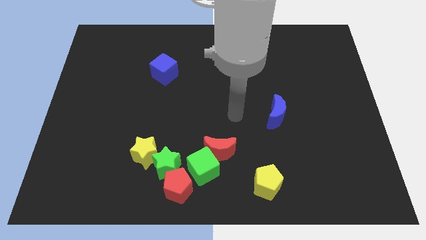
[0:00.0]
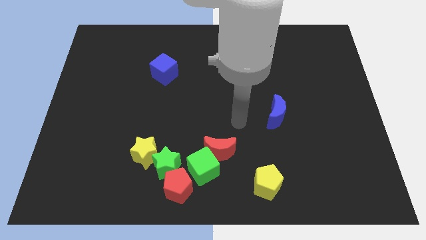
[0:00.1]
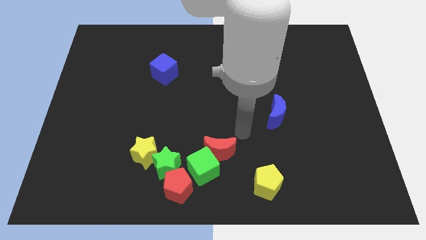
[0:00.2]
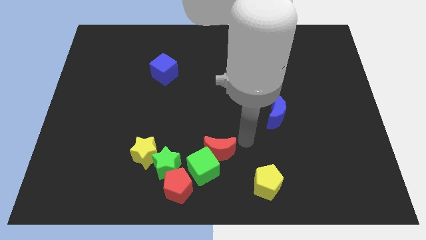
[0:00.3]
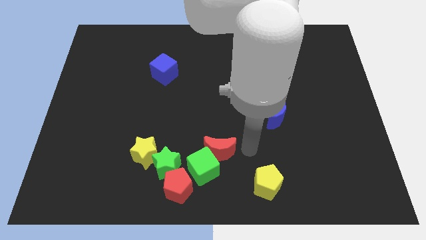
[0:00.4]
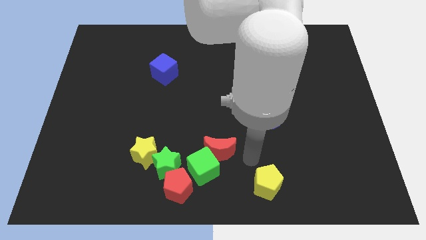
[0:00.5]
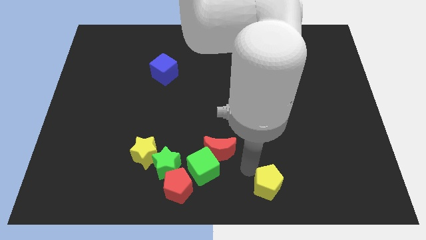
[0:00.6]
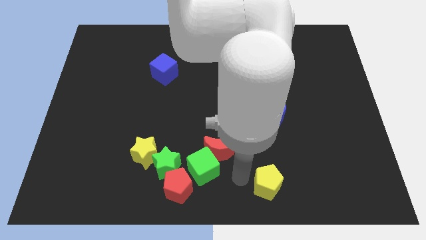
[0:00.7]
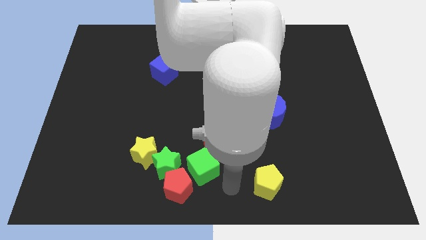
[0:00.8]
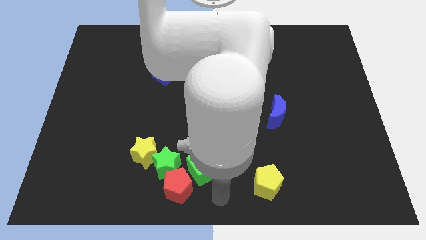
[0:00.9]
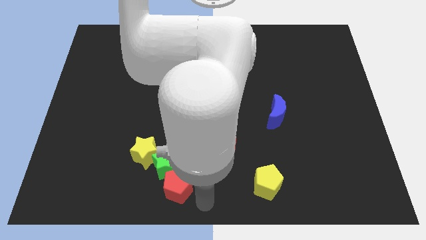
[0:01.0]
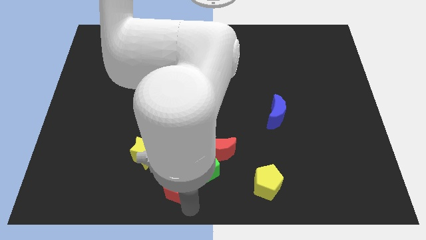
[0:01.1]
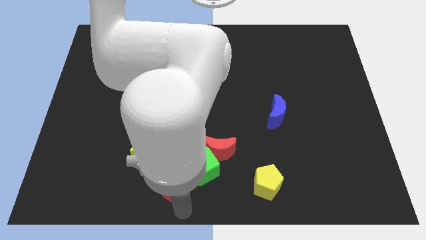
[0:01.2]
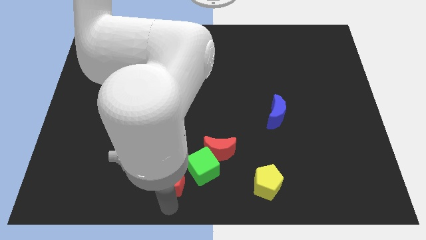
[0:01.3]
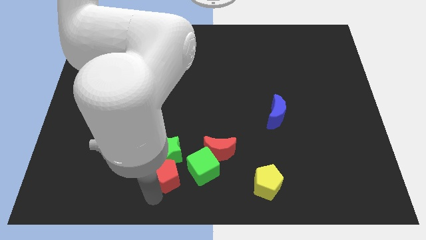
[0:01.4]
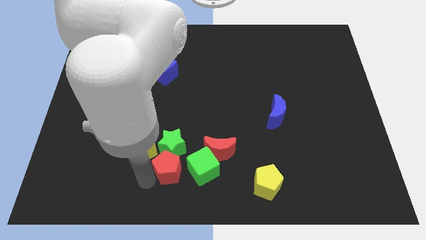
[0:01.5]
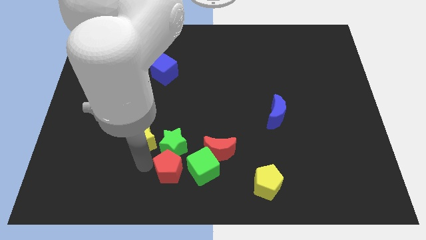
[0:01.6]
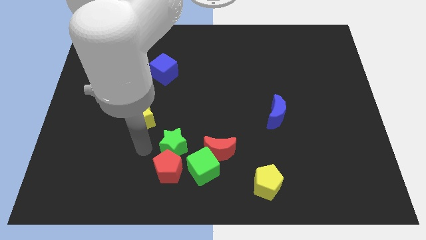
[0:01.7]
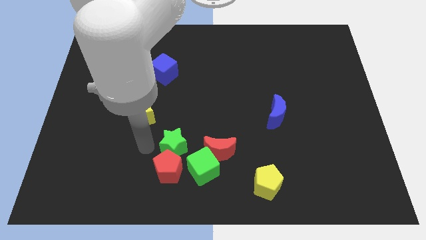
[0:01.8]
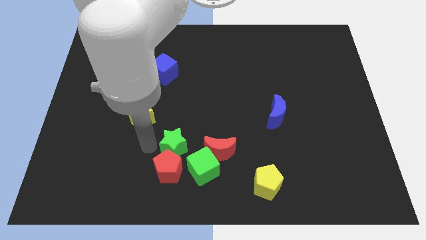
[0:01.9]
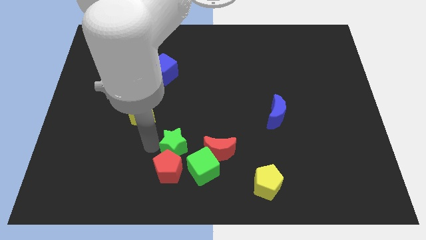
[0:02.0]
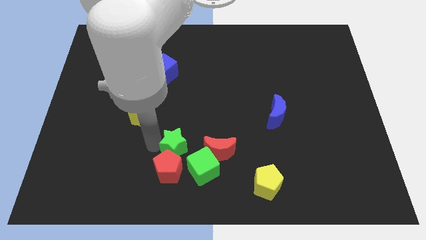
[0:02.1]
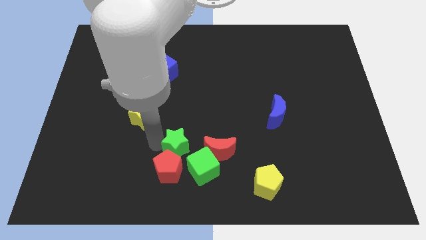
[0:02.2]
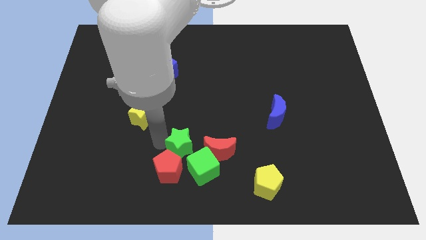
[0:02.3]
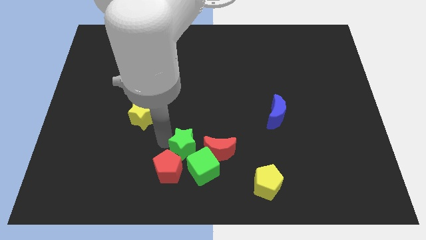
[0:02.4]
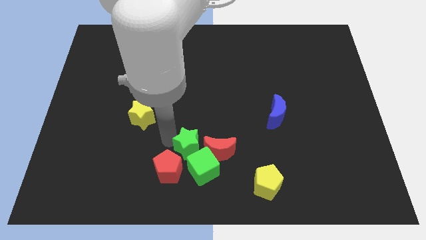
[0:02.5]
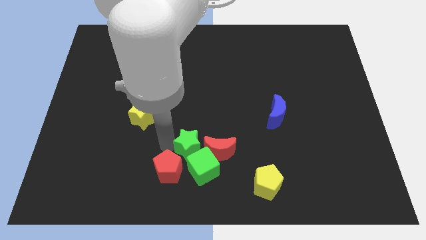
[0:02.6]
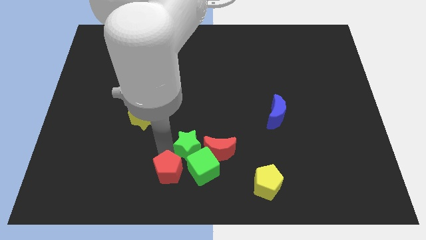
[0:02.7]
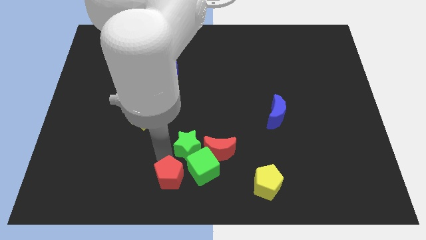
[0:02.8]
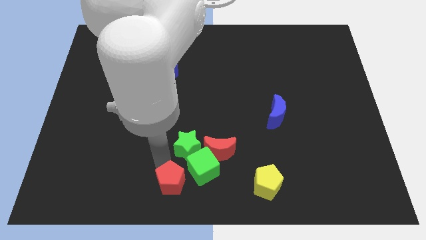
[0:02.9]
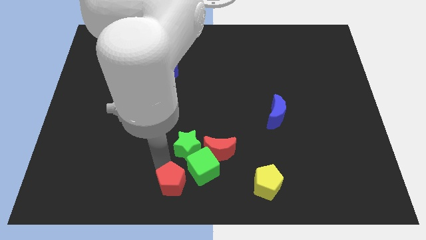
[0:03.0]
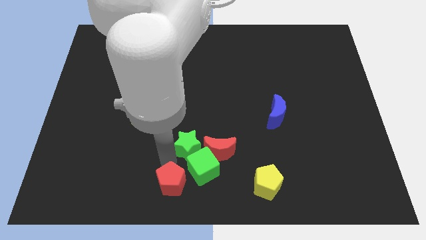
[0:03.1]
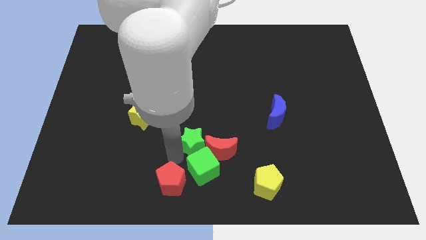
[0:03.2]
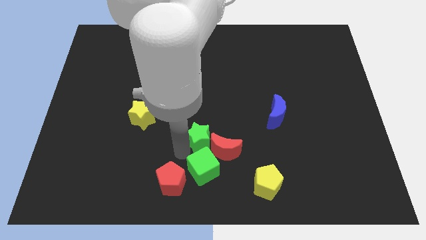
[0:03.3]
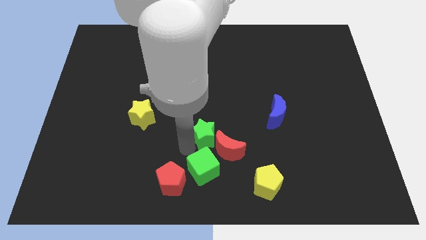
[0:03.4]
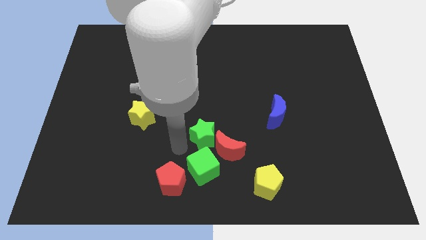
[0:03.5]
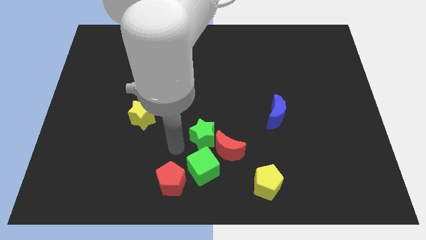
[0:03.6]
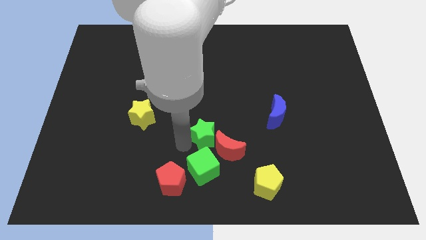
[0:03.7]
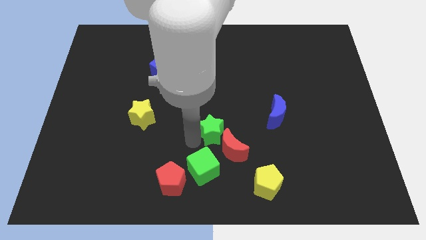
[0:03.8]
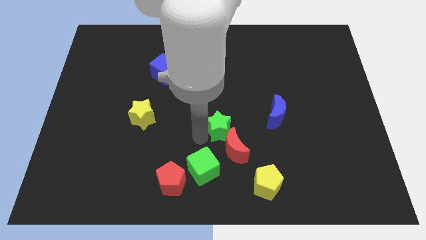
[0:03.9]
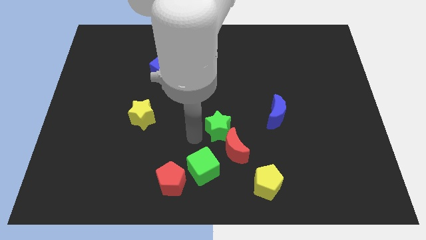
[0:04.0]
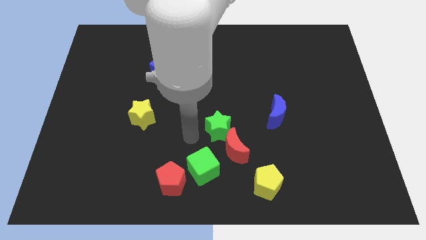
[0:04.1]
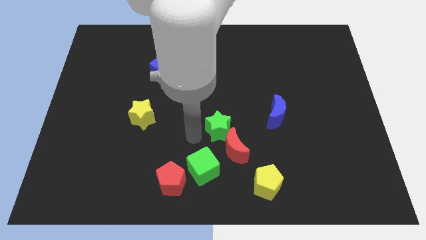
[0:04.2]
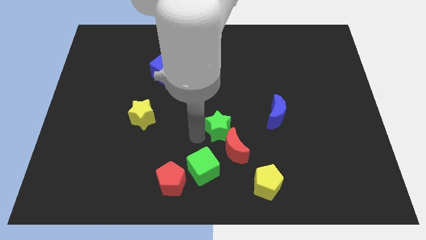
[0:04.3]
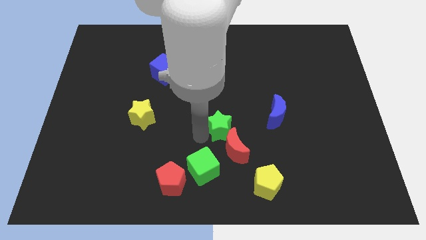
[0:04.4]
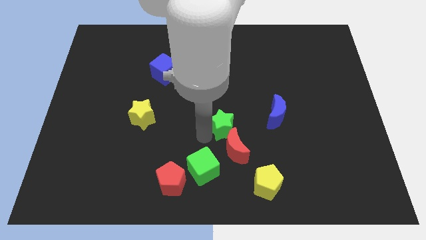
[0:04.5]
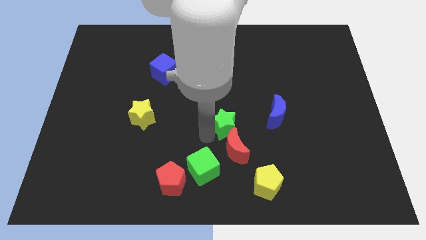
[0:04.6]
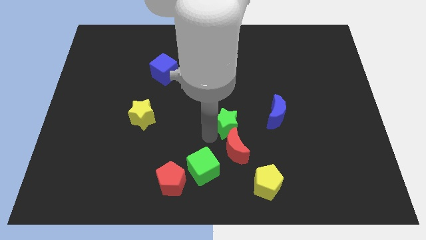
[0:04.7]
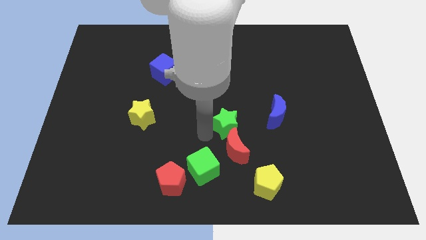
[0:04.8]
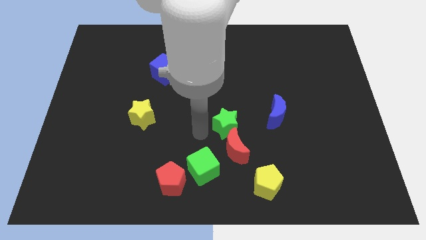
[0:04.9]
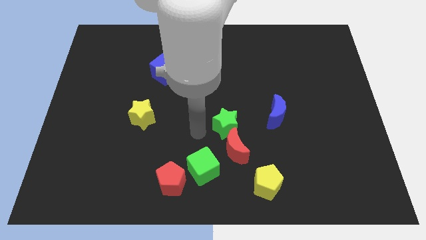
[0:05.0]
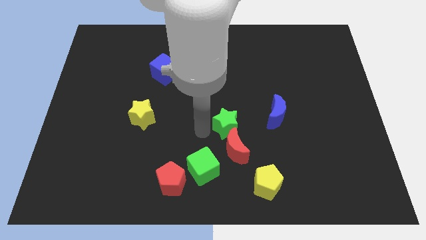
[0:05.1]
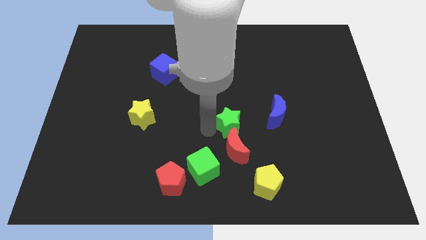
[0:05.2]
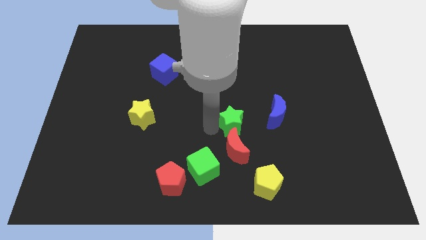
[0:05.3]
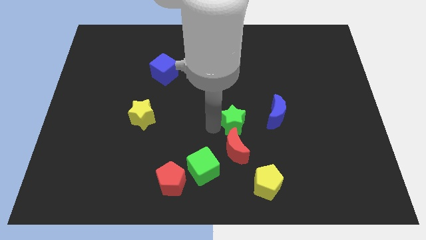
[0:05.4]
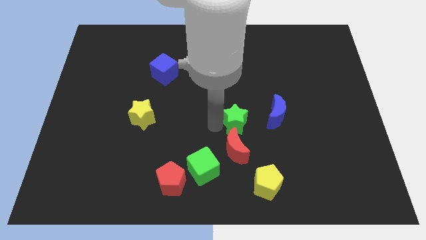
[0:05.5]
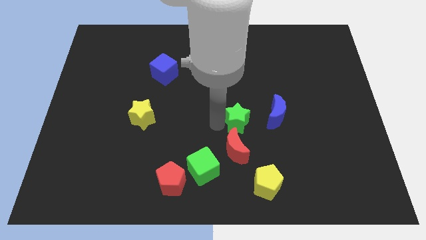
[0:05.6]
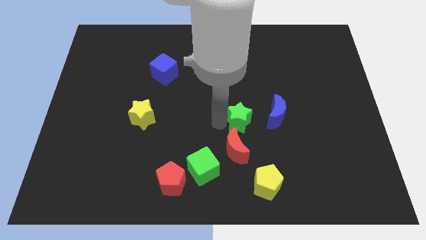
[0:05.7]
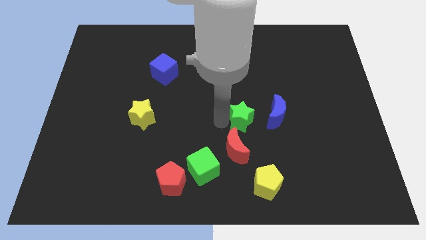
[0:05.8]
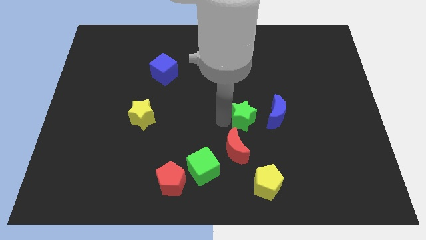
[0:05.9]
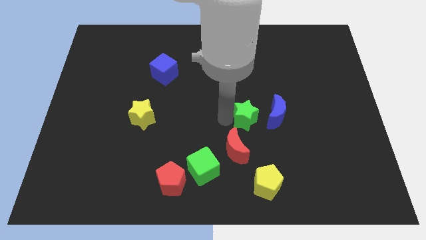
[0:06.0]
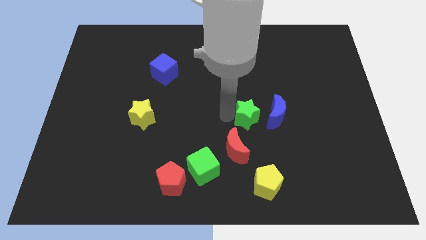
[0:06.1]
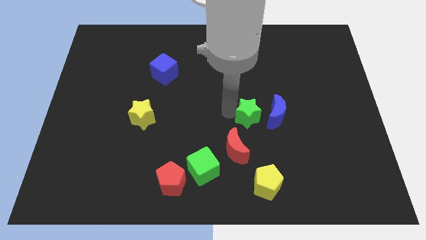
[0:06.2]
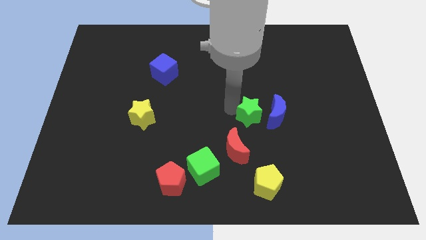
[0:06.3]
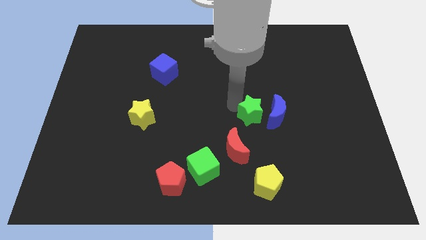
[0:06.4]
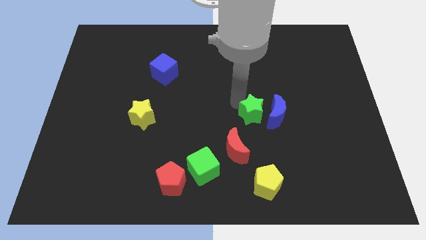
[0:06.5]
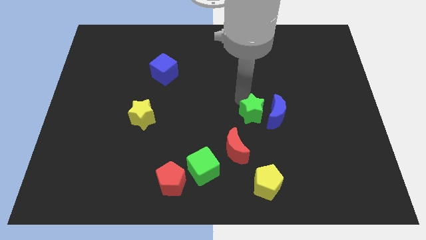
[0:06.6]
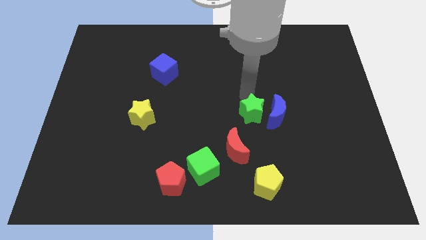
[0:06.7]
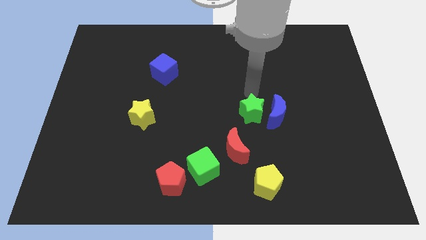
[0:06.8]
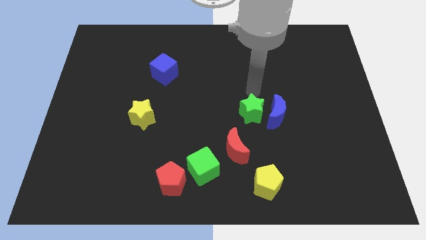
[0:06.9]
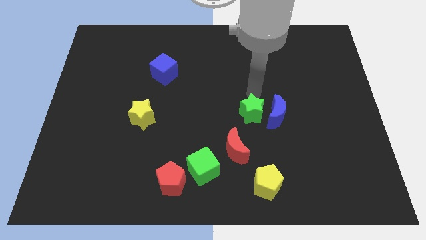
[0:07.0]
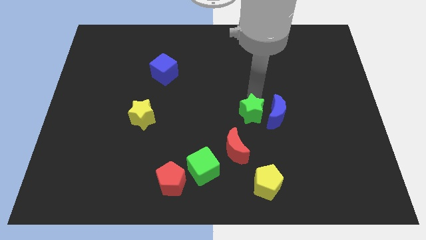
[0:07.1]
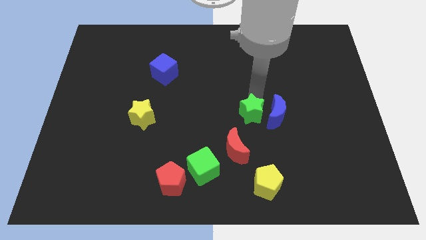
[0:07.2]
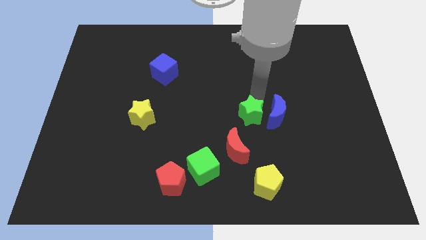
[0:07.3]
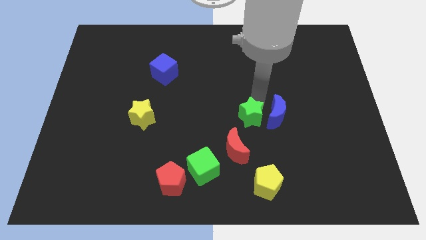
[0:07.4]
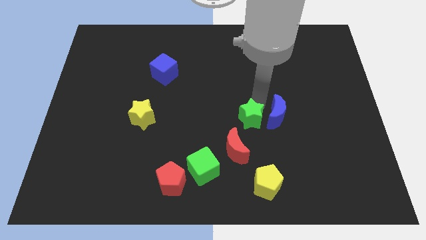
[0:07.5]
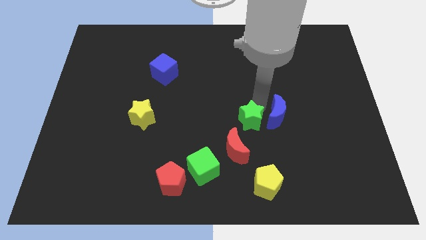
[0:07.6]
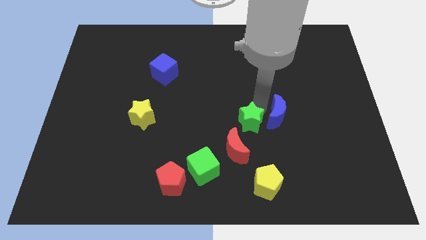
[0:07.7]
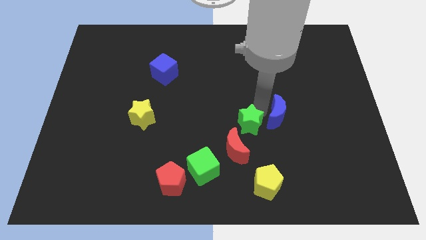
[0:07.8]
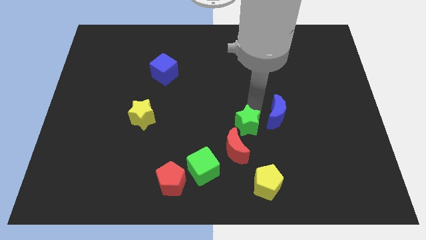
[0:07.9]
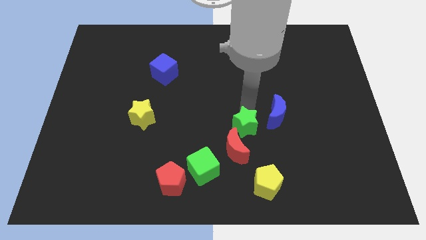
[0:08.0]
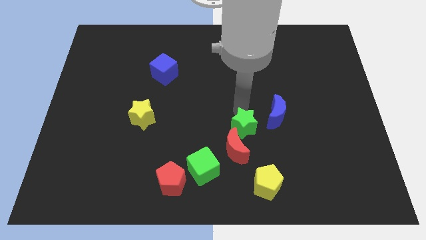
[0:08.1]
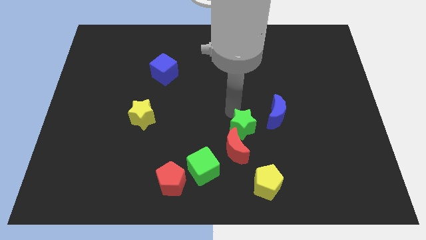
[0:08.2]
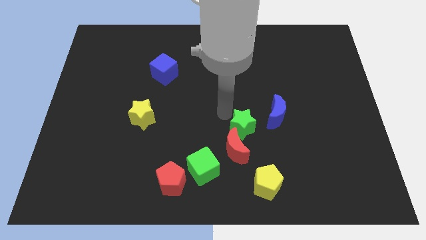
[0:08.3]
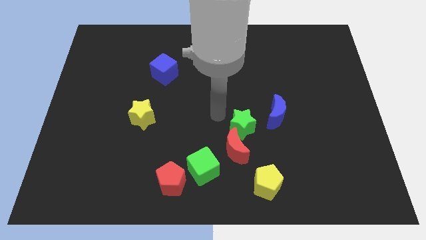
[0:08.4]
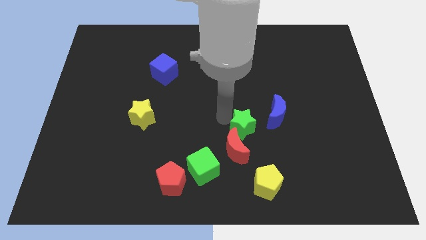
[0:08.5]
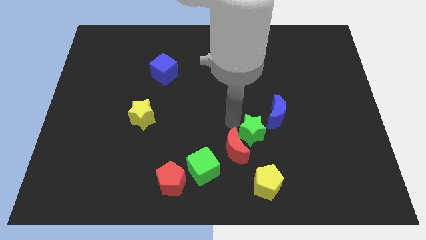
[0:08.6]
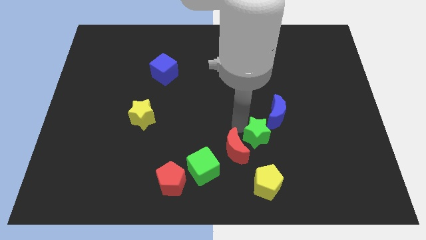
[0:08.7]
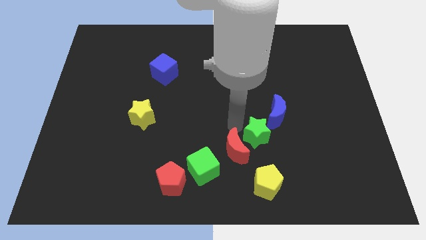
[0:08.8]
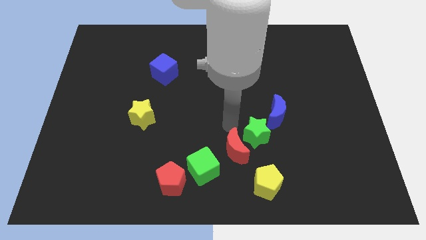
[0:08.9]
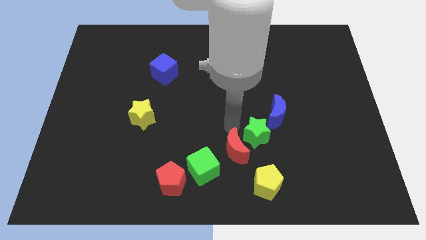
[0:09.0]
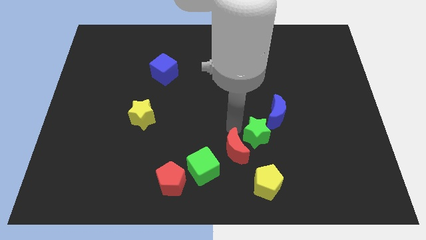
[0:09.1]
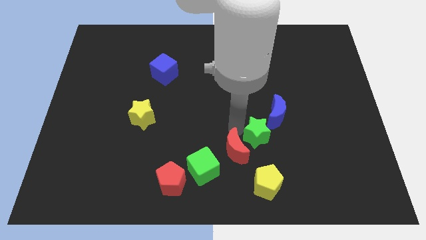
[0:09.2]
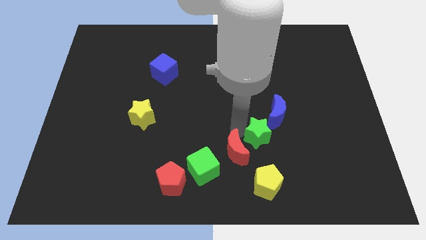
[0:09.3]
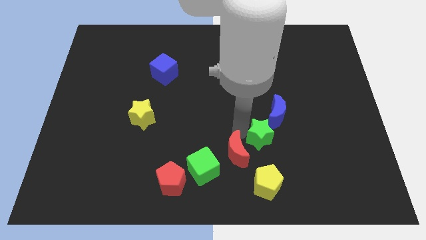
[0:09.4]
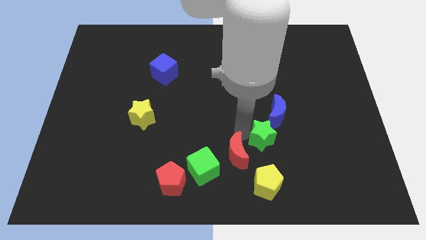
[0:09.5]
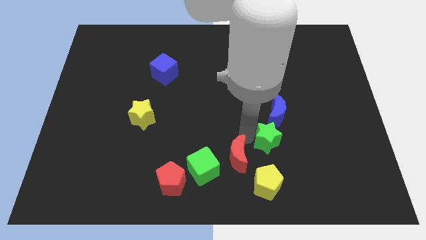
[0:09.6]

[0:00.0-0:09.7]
move the green star right
